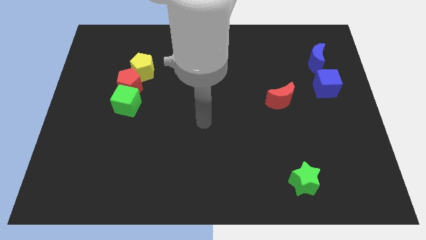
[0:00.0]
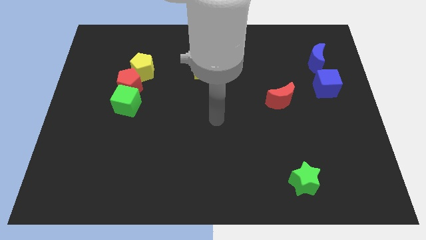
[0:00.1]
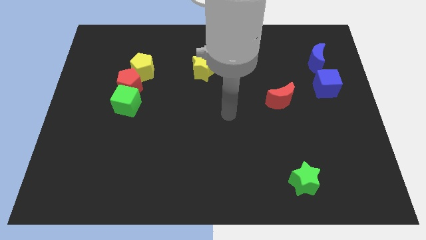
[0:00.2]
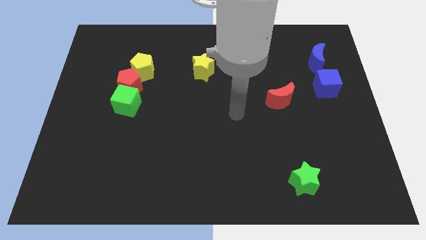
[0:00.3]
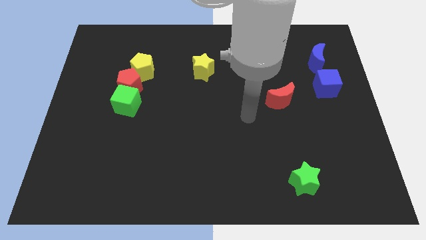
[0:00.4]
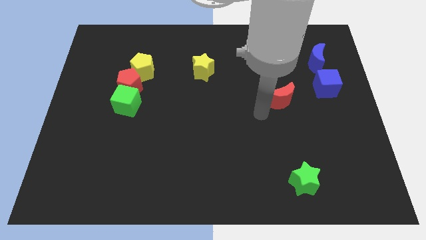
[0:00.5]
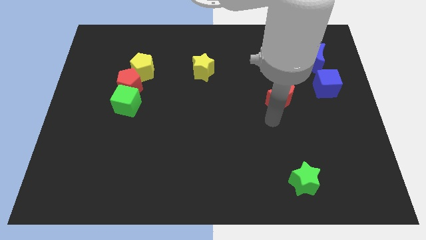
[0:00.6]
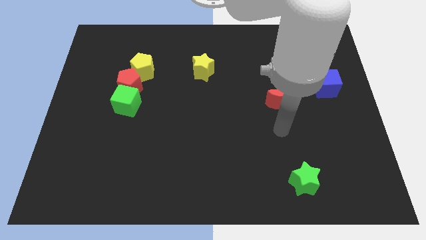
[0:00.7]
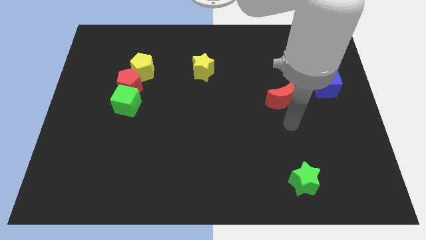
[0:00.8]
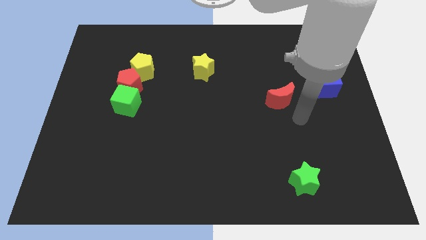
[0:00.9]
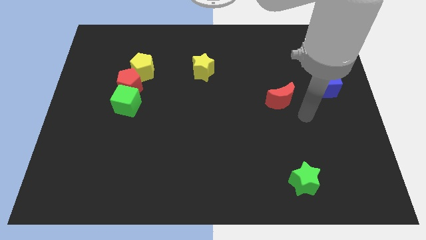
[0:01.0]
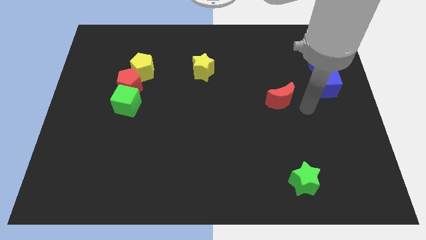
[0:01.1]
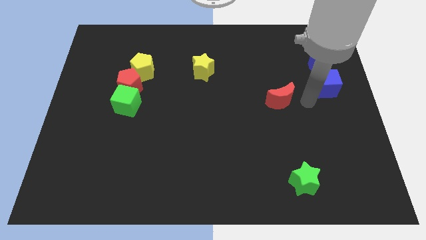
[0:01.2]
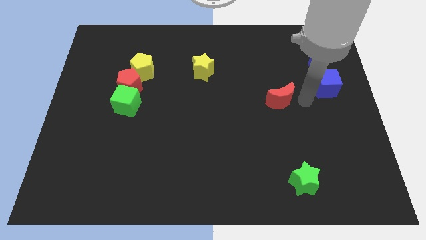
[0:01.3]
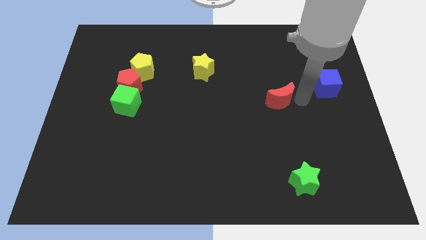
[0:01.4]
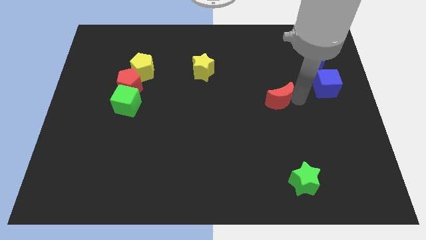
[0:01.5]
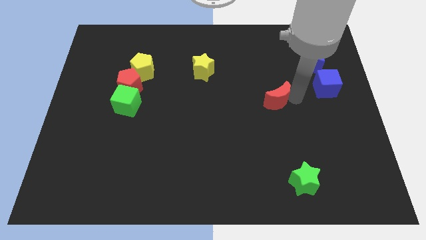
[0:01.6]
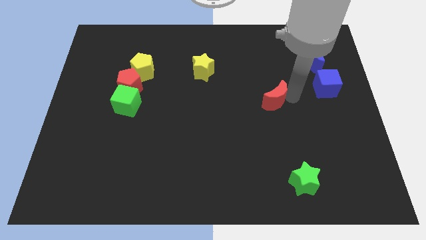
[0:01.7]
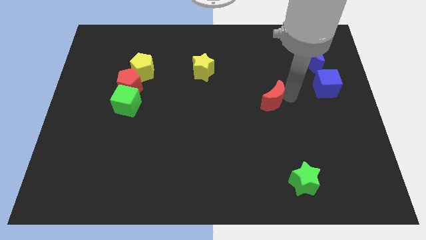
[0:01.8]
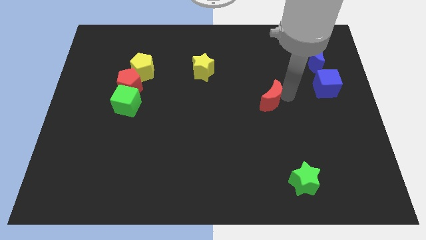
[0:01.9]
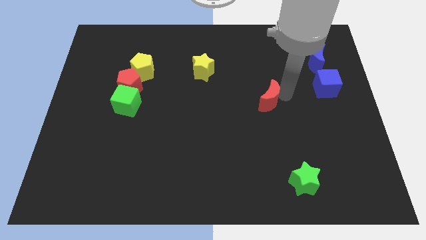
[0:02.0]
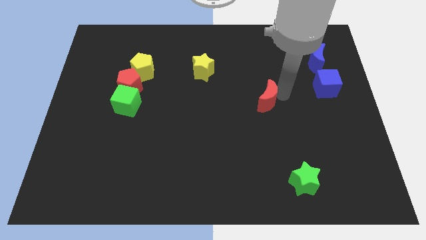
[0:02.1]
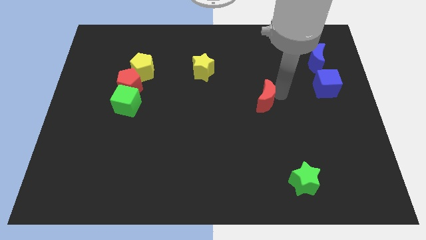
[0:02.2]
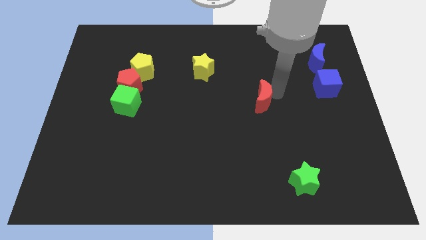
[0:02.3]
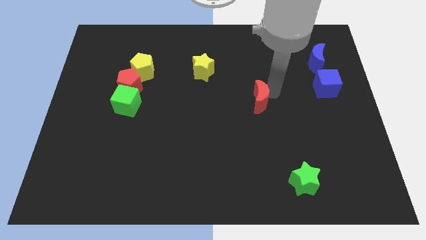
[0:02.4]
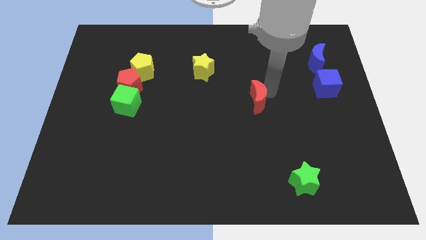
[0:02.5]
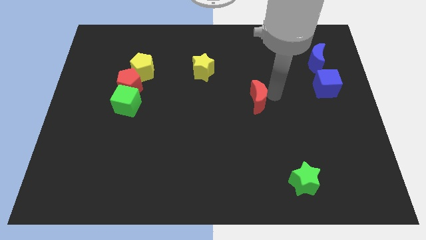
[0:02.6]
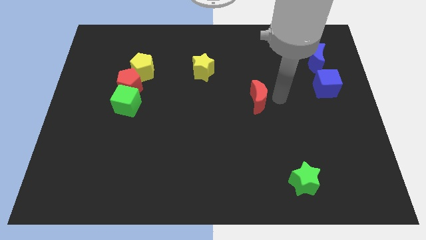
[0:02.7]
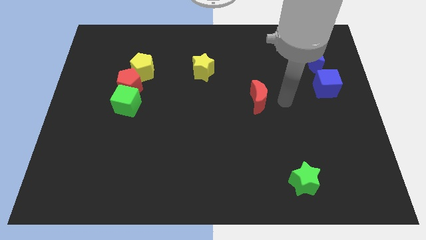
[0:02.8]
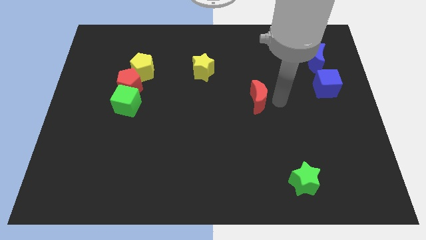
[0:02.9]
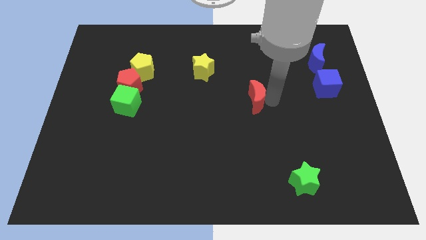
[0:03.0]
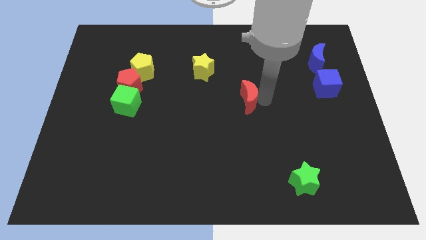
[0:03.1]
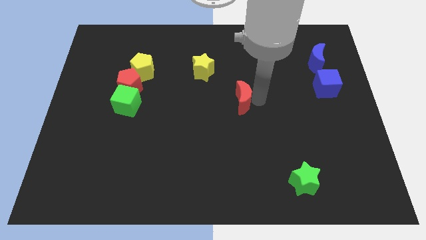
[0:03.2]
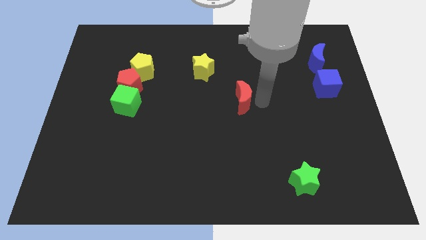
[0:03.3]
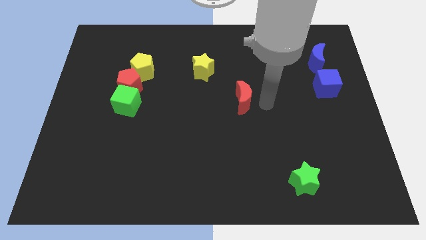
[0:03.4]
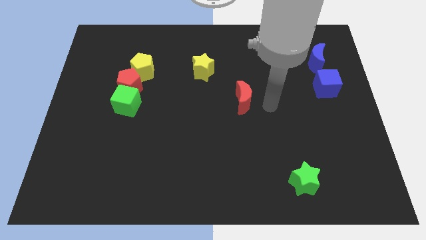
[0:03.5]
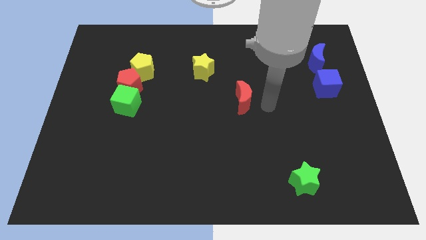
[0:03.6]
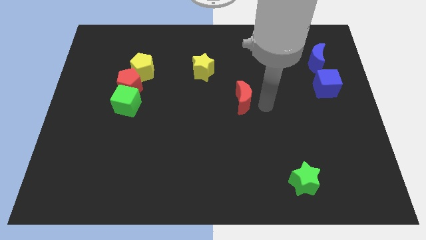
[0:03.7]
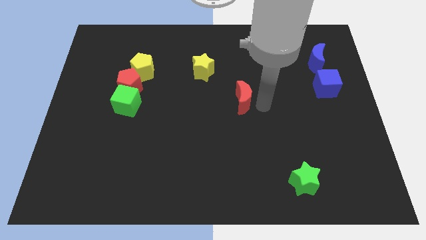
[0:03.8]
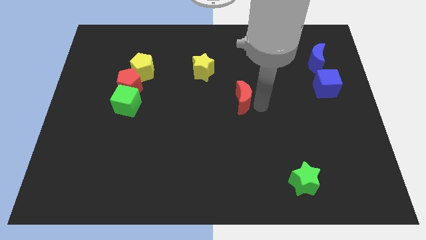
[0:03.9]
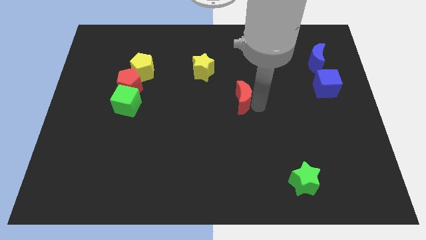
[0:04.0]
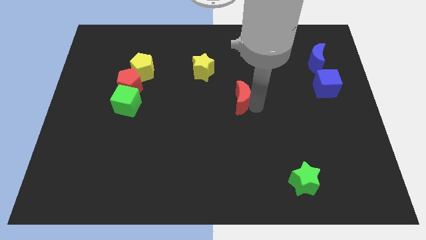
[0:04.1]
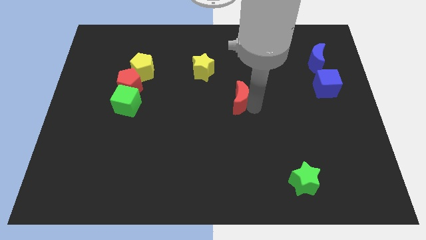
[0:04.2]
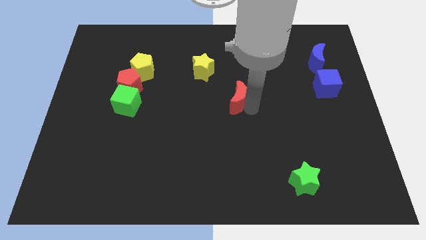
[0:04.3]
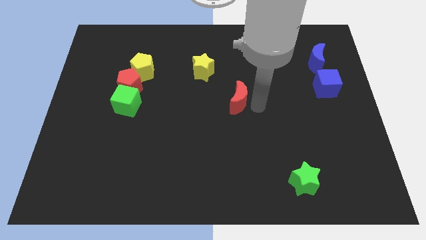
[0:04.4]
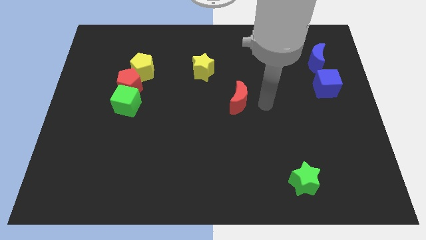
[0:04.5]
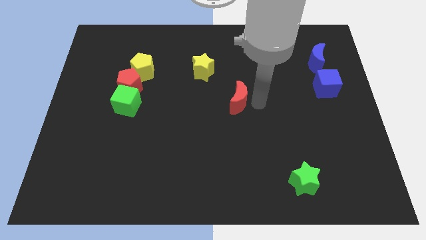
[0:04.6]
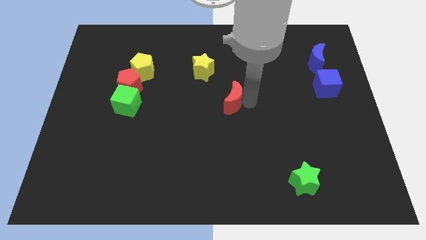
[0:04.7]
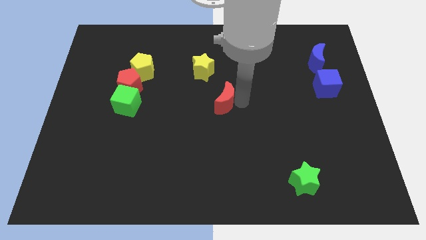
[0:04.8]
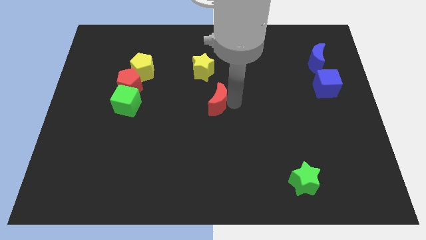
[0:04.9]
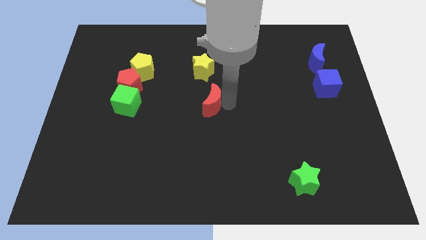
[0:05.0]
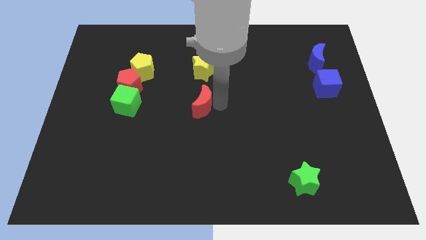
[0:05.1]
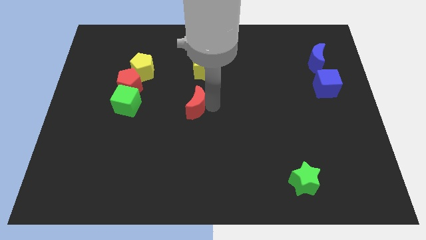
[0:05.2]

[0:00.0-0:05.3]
push the red moon to the left

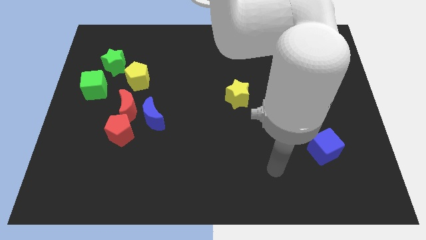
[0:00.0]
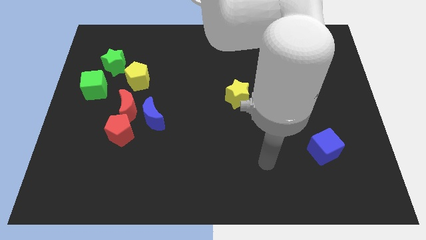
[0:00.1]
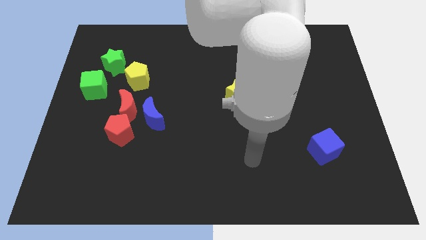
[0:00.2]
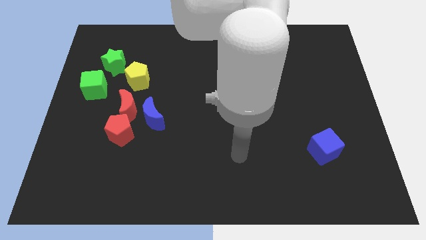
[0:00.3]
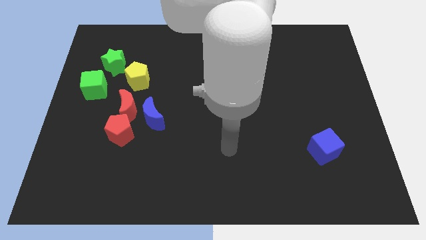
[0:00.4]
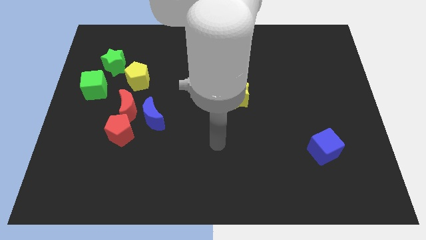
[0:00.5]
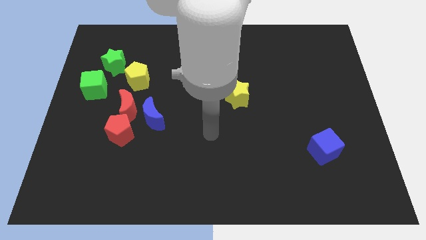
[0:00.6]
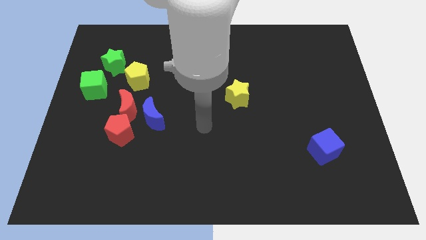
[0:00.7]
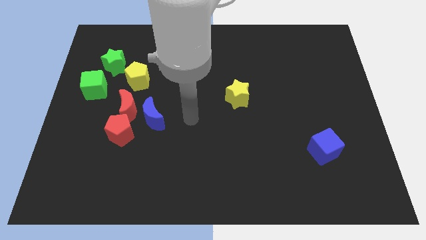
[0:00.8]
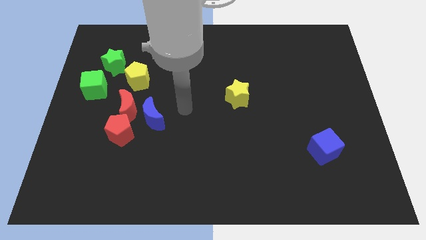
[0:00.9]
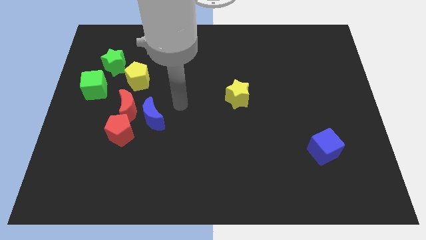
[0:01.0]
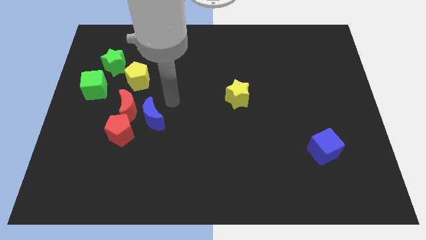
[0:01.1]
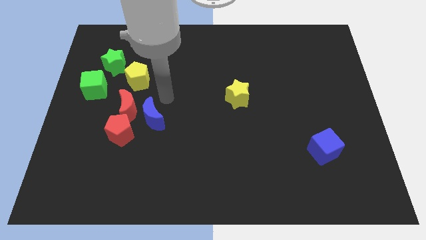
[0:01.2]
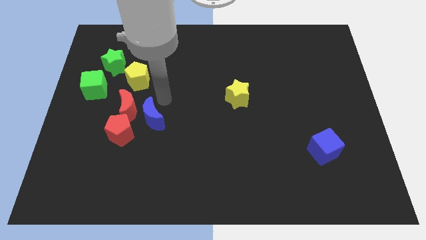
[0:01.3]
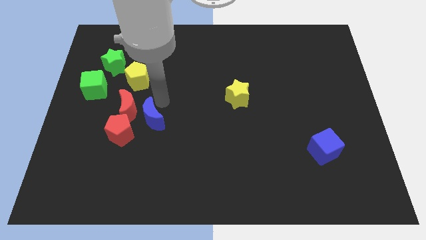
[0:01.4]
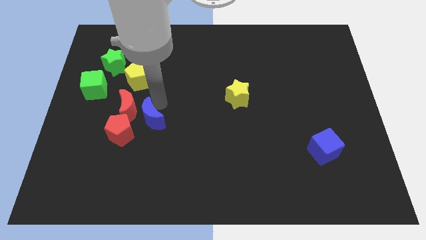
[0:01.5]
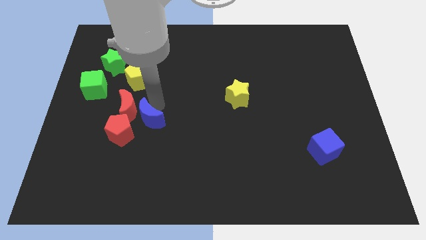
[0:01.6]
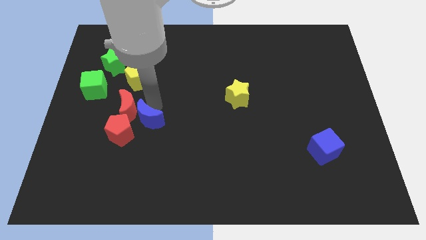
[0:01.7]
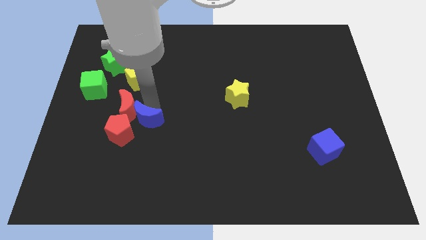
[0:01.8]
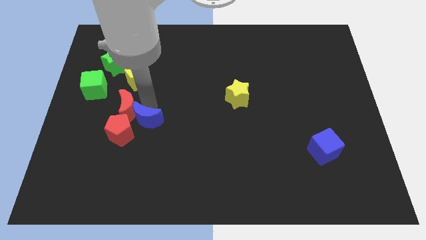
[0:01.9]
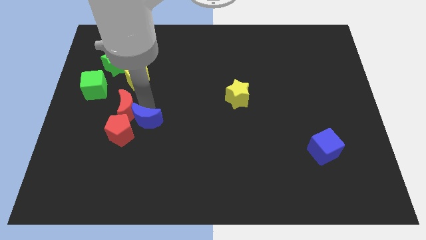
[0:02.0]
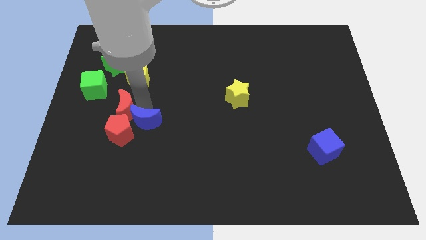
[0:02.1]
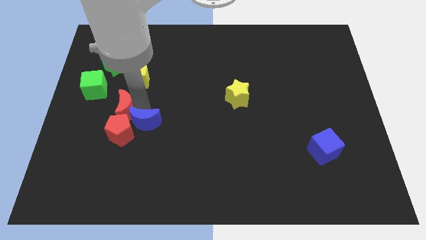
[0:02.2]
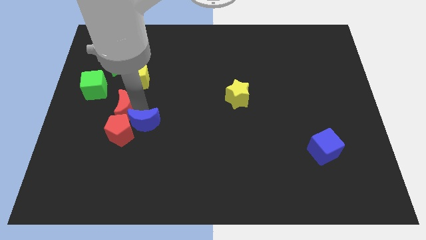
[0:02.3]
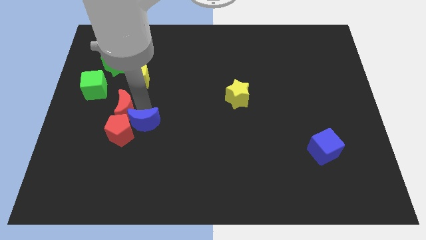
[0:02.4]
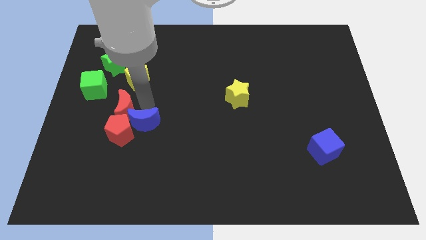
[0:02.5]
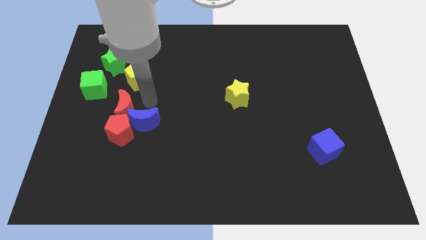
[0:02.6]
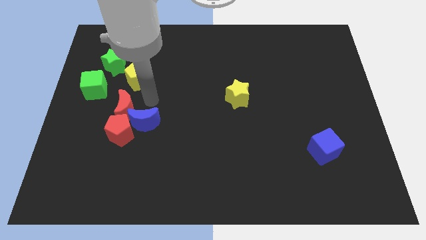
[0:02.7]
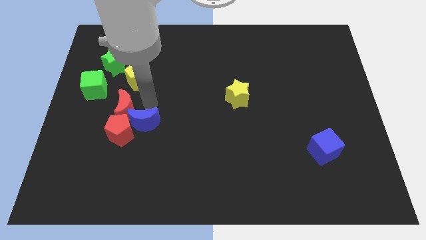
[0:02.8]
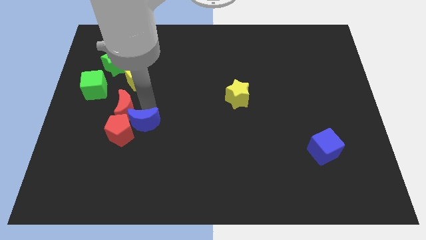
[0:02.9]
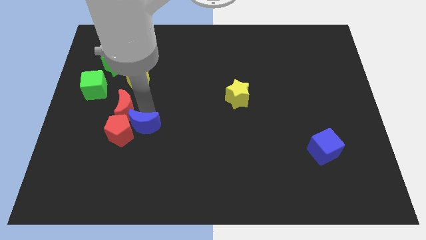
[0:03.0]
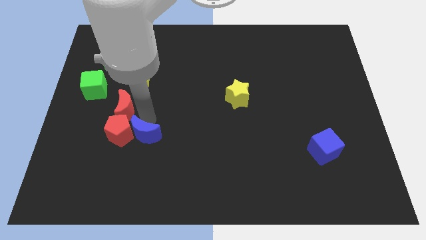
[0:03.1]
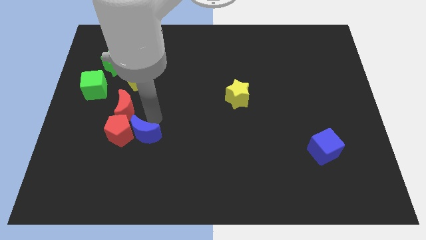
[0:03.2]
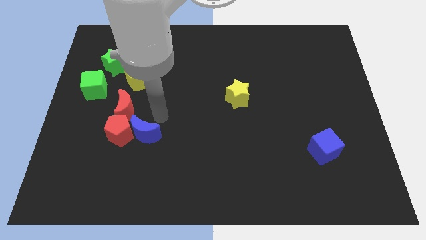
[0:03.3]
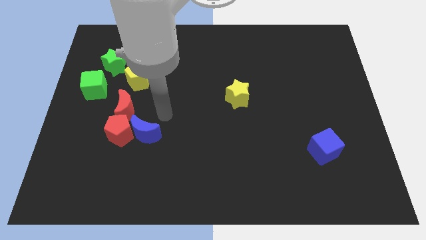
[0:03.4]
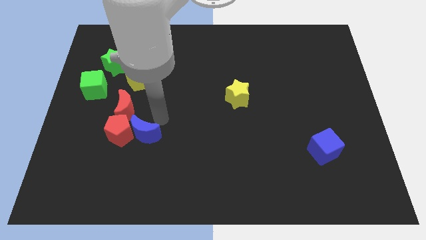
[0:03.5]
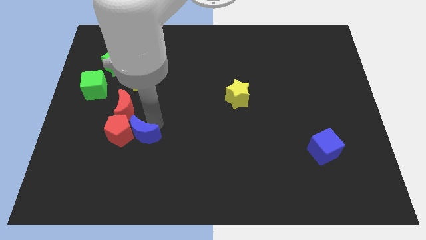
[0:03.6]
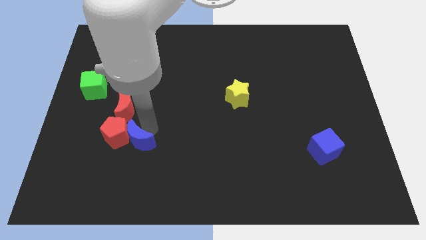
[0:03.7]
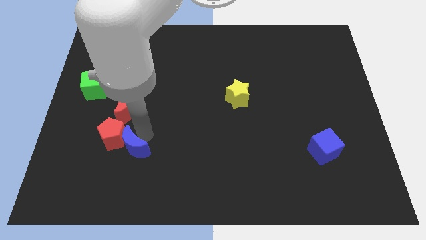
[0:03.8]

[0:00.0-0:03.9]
slightly move the blue moon downwards and then to the left
